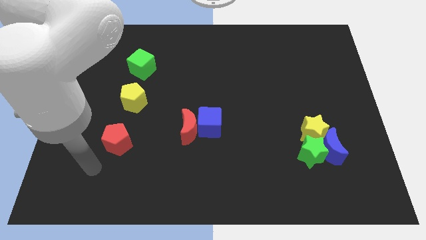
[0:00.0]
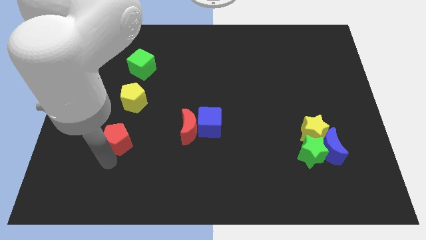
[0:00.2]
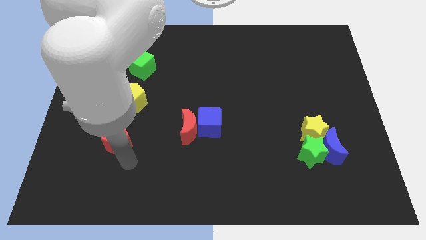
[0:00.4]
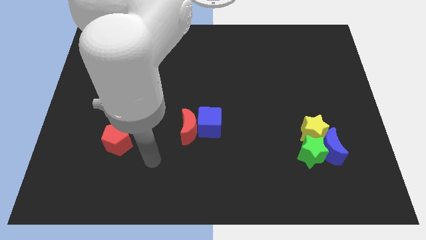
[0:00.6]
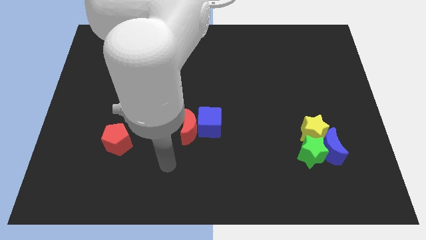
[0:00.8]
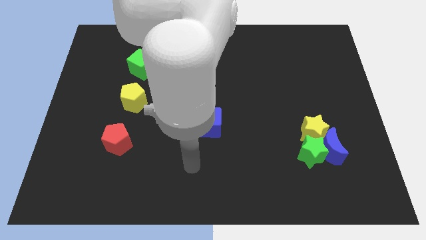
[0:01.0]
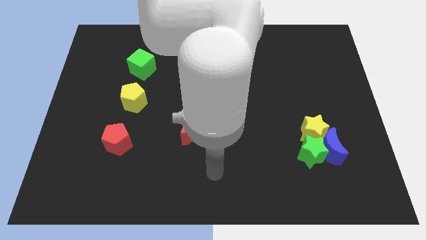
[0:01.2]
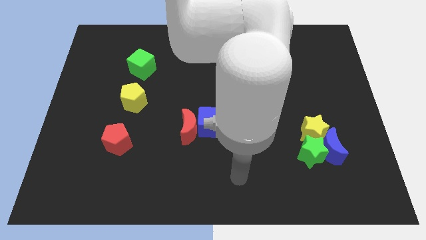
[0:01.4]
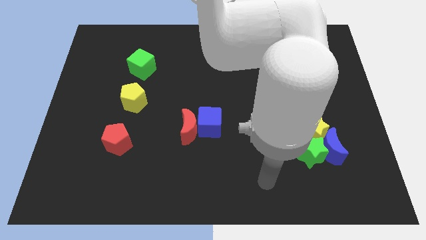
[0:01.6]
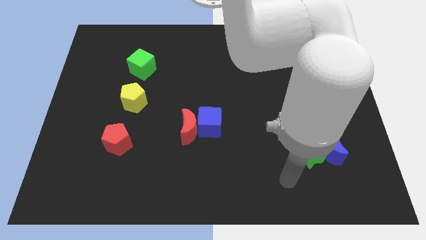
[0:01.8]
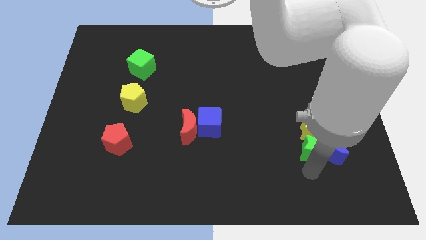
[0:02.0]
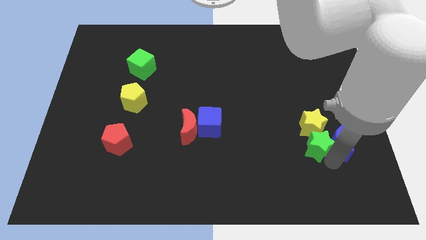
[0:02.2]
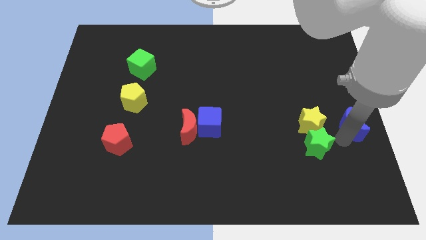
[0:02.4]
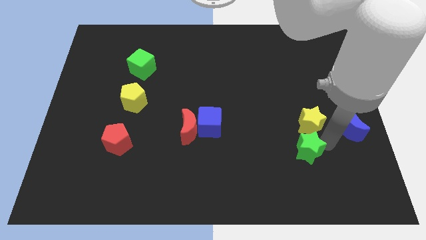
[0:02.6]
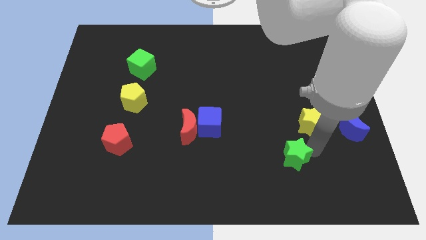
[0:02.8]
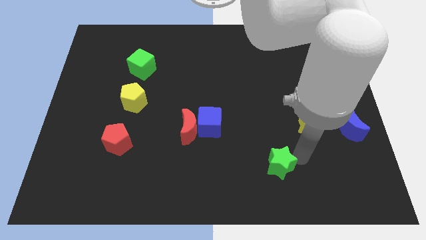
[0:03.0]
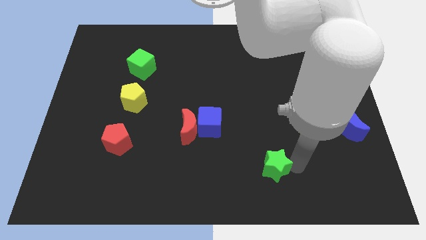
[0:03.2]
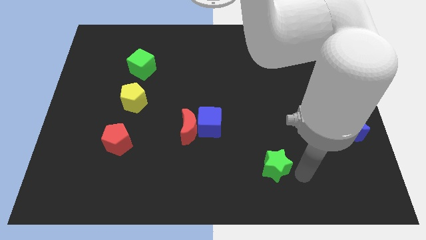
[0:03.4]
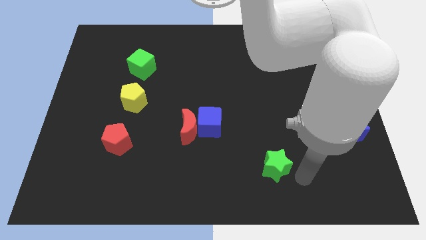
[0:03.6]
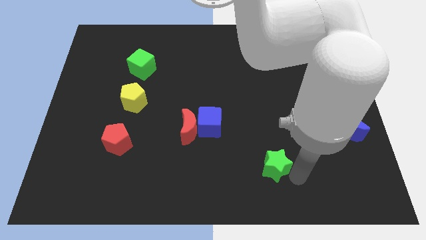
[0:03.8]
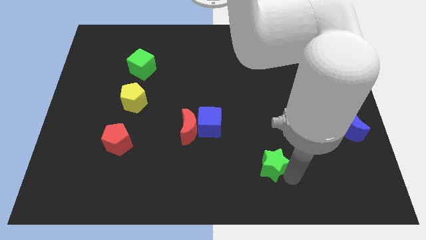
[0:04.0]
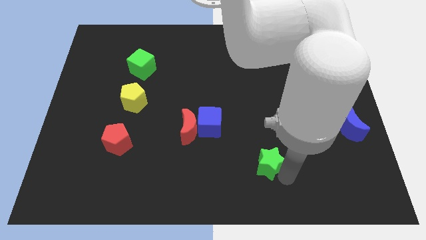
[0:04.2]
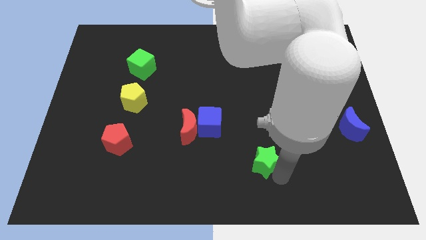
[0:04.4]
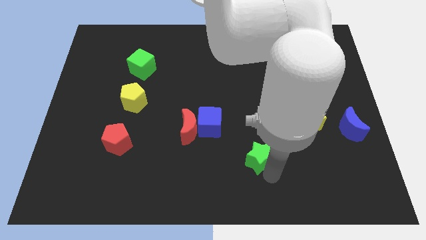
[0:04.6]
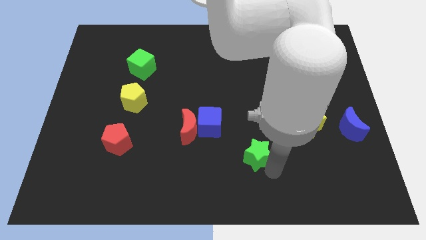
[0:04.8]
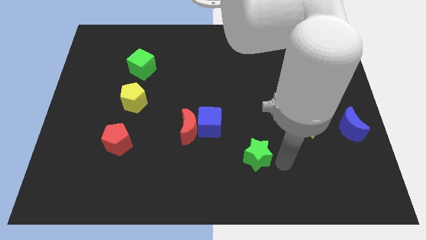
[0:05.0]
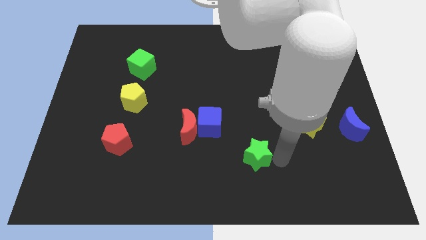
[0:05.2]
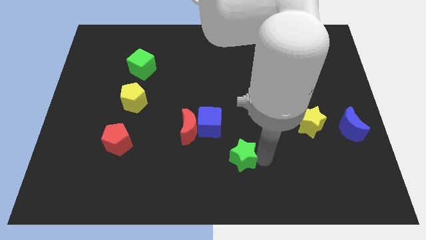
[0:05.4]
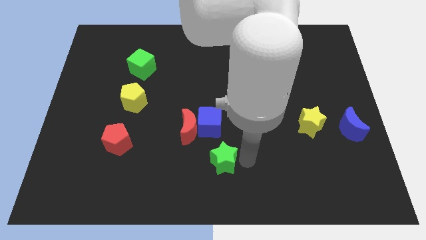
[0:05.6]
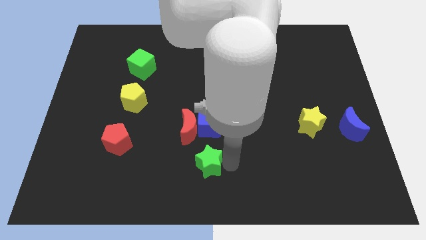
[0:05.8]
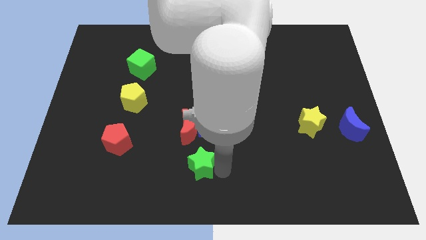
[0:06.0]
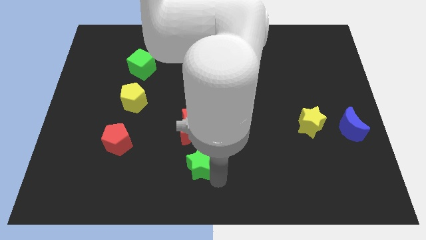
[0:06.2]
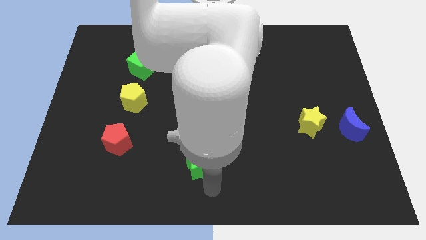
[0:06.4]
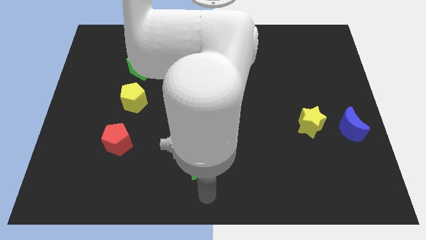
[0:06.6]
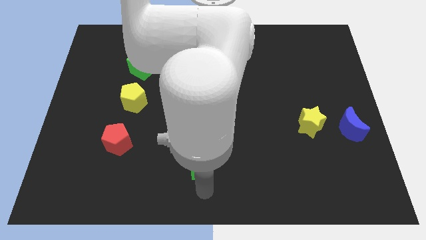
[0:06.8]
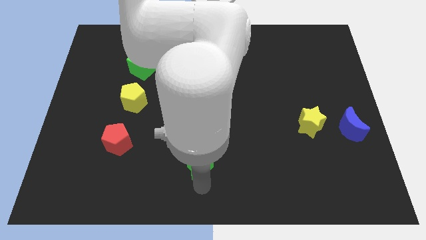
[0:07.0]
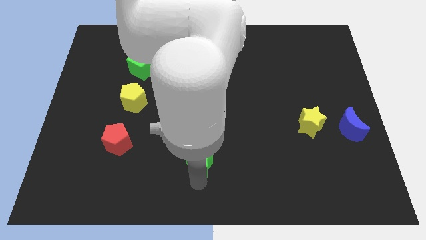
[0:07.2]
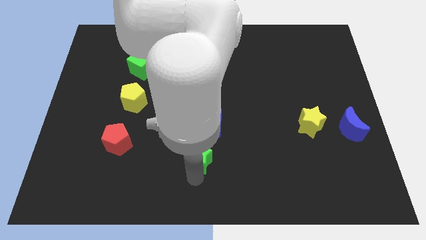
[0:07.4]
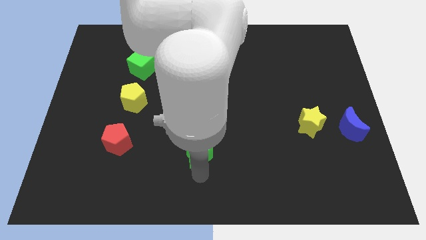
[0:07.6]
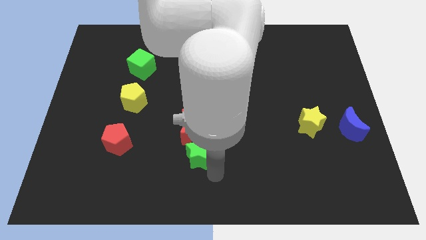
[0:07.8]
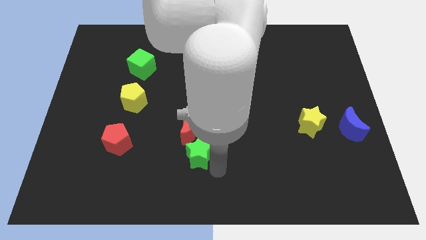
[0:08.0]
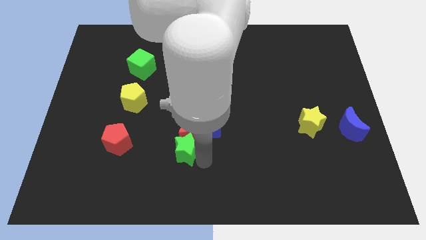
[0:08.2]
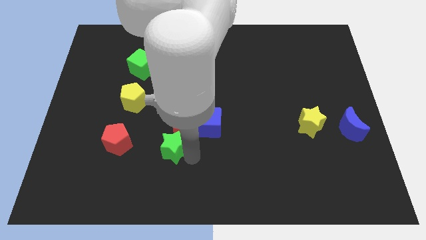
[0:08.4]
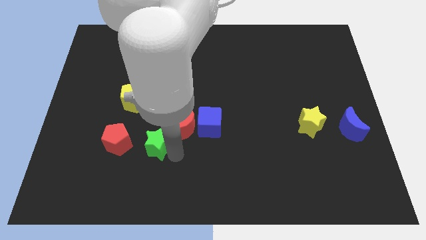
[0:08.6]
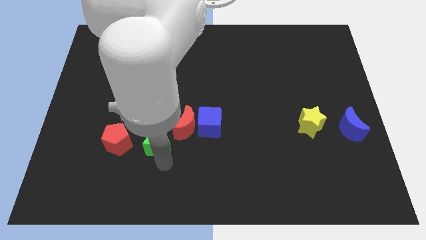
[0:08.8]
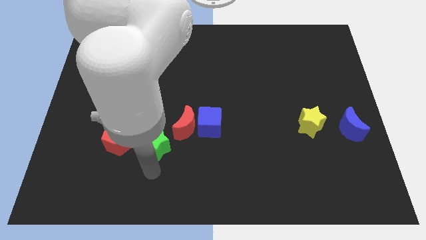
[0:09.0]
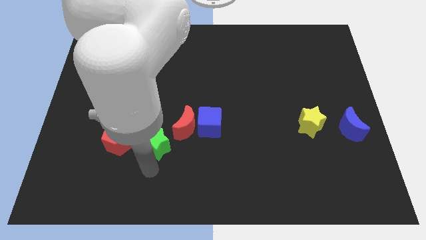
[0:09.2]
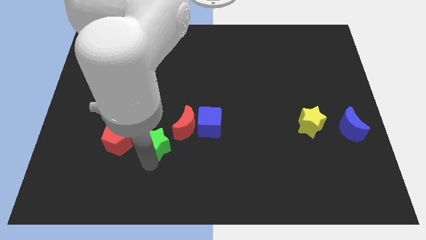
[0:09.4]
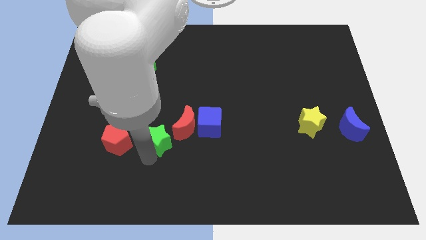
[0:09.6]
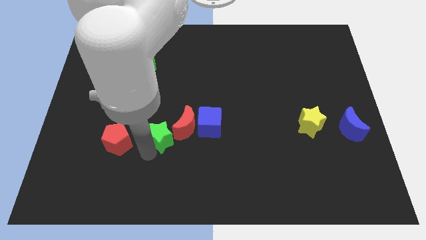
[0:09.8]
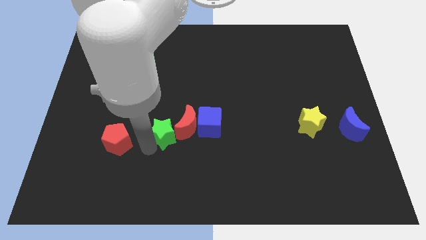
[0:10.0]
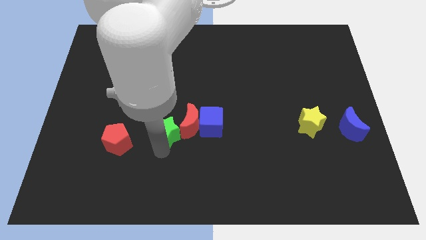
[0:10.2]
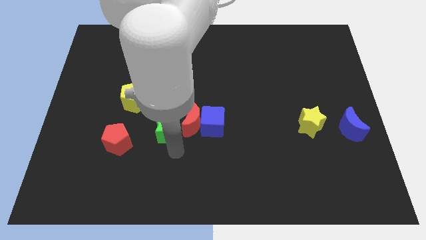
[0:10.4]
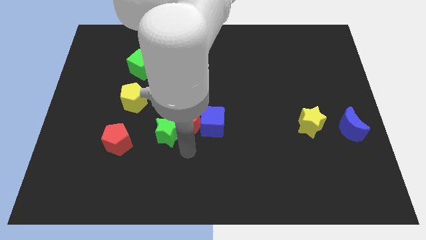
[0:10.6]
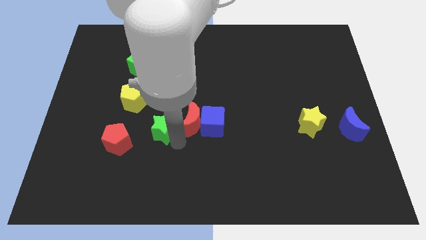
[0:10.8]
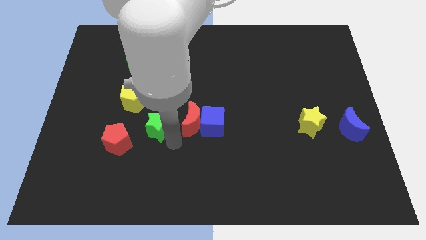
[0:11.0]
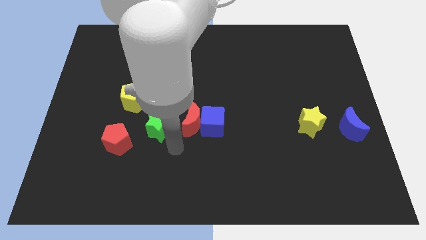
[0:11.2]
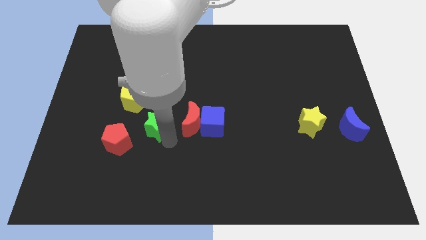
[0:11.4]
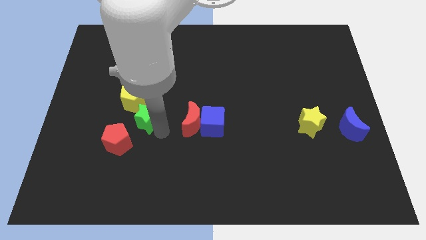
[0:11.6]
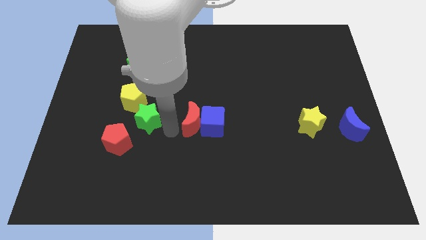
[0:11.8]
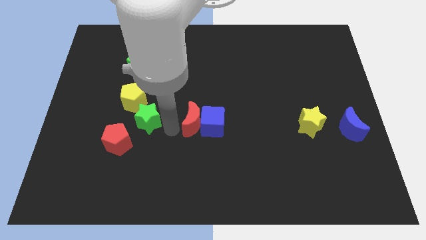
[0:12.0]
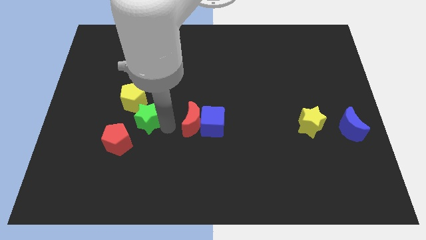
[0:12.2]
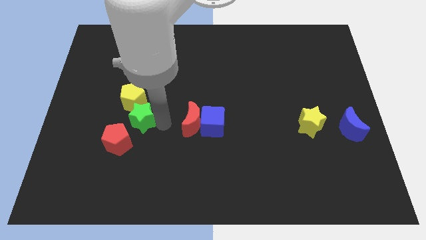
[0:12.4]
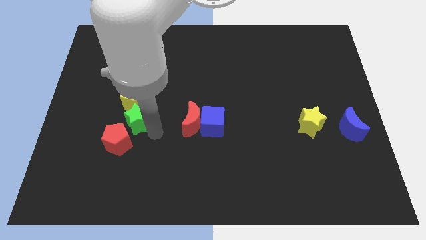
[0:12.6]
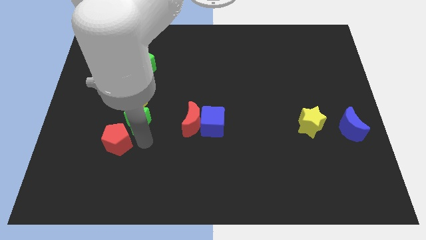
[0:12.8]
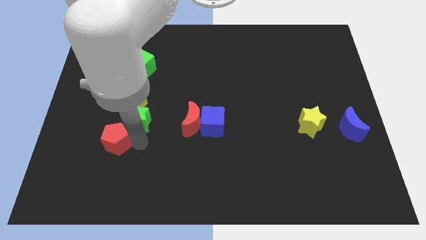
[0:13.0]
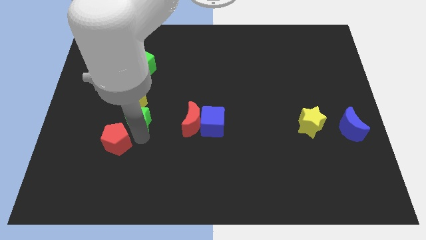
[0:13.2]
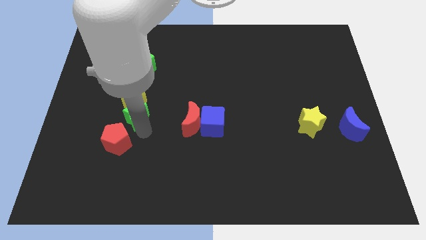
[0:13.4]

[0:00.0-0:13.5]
put the green star below the green cube
